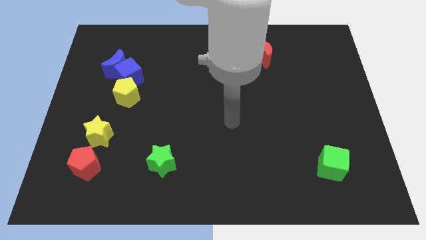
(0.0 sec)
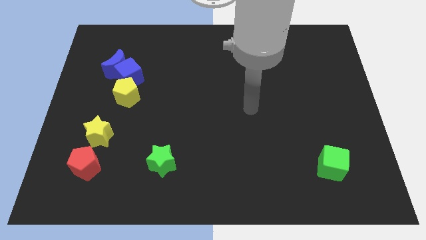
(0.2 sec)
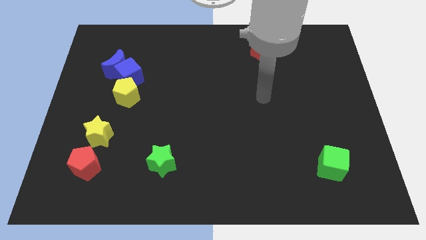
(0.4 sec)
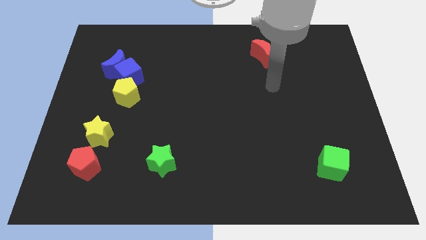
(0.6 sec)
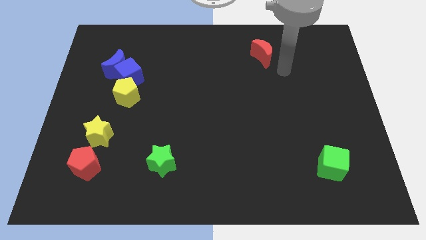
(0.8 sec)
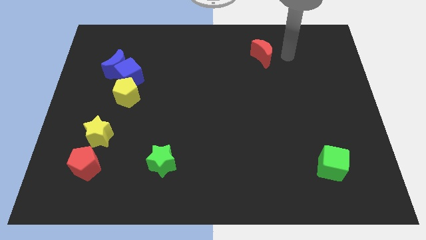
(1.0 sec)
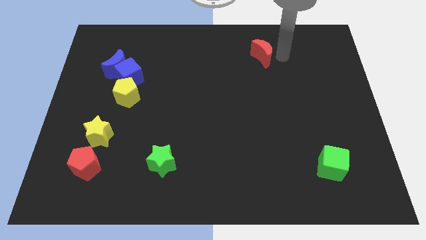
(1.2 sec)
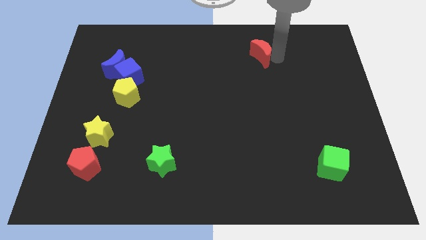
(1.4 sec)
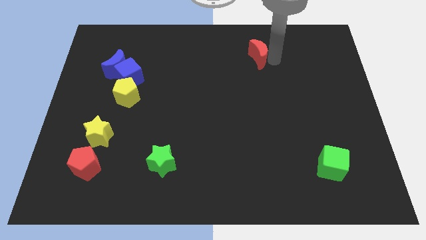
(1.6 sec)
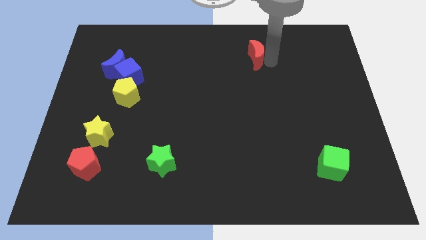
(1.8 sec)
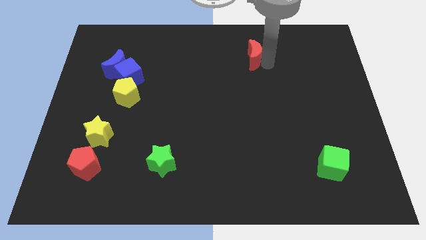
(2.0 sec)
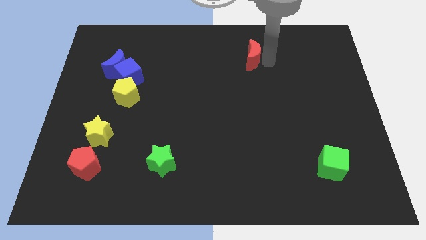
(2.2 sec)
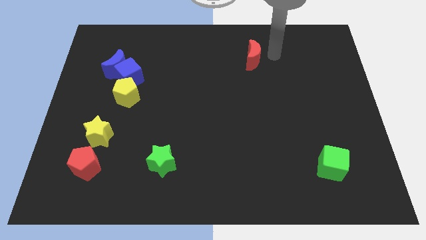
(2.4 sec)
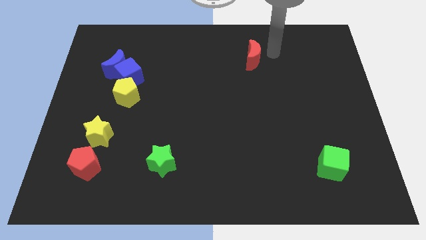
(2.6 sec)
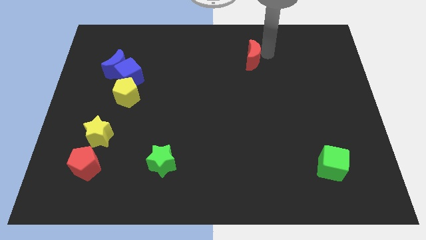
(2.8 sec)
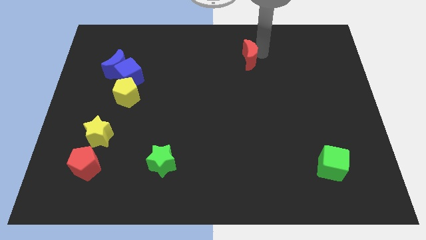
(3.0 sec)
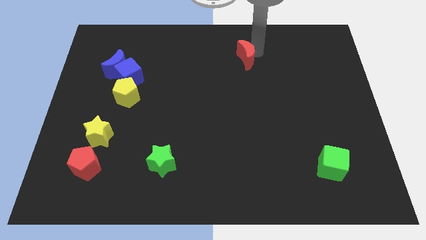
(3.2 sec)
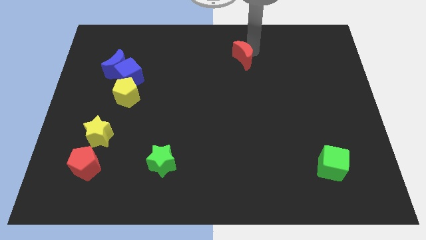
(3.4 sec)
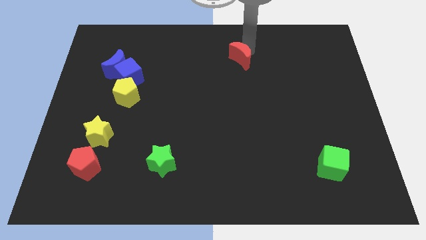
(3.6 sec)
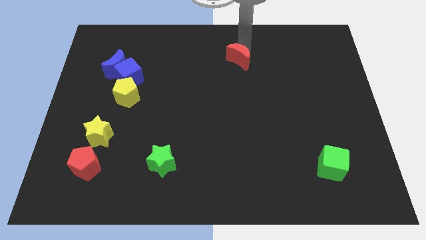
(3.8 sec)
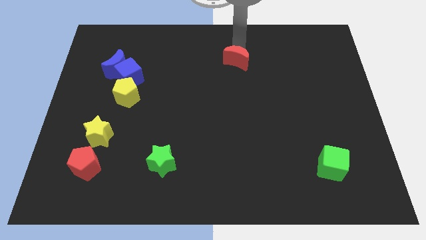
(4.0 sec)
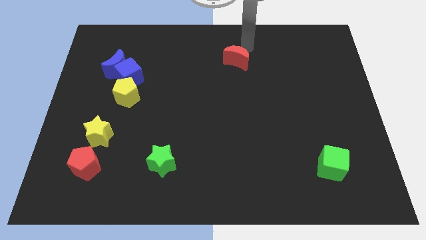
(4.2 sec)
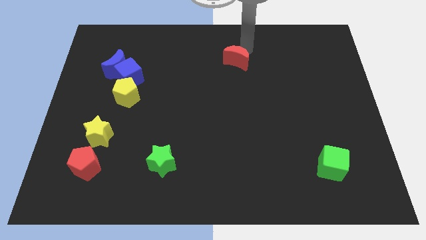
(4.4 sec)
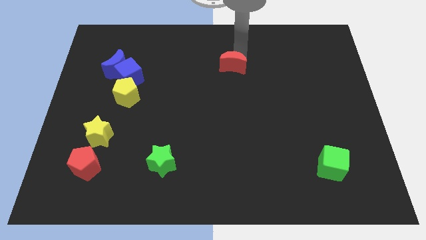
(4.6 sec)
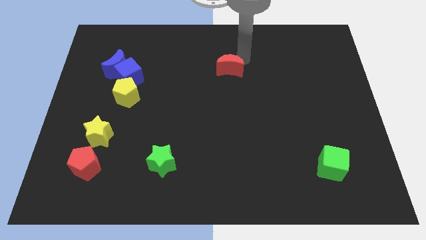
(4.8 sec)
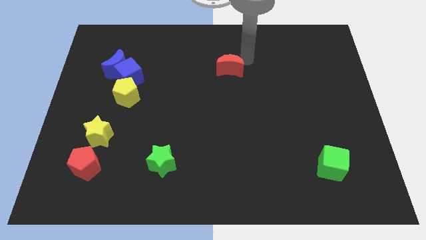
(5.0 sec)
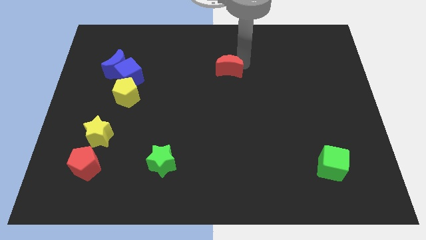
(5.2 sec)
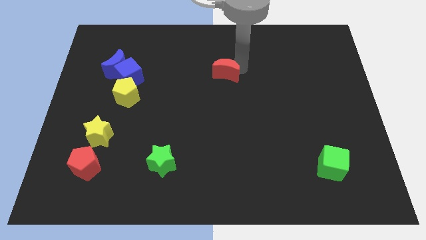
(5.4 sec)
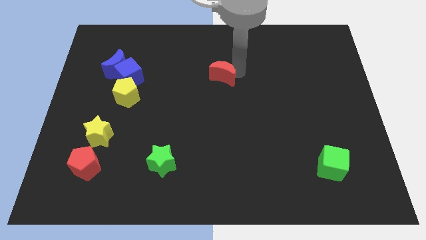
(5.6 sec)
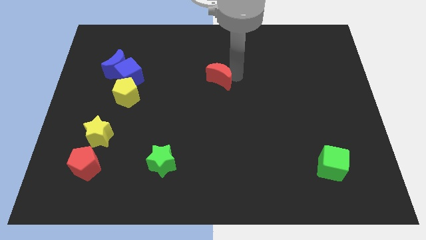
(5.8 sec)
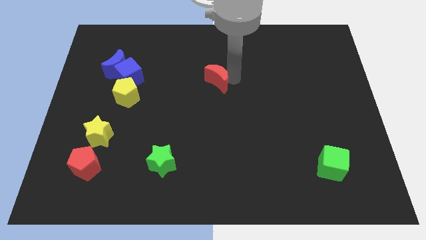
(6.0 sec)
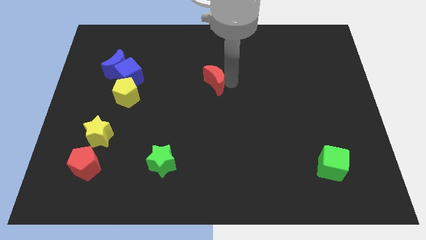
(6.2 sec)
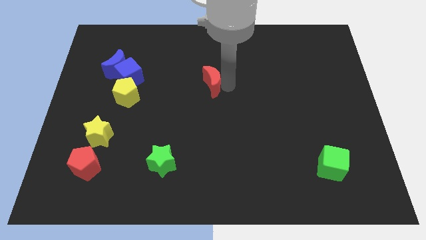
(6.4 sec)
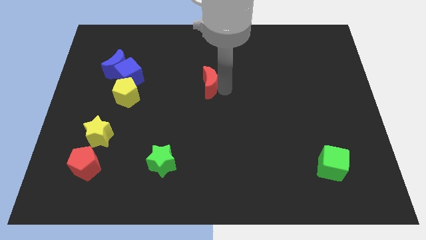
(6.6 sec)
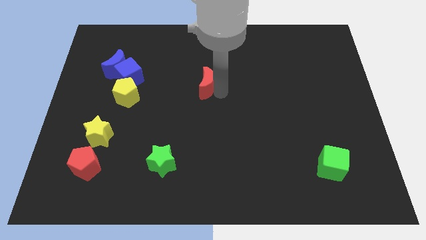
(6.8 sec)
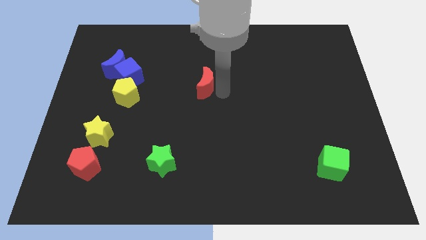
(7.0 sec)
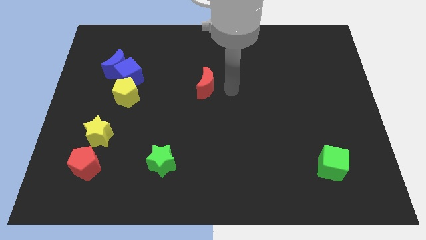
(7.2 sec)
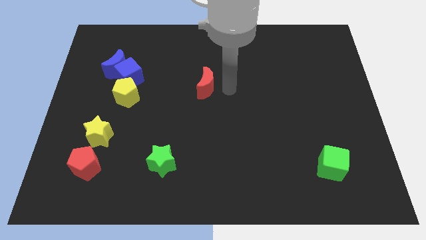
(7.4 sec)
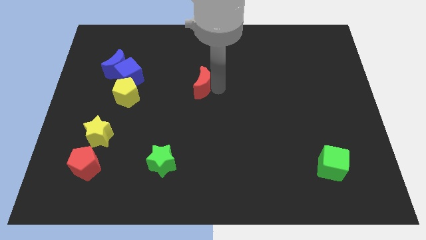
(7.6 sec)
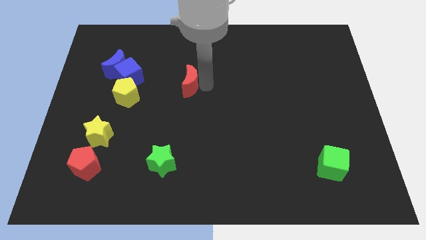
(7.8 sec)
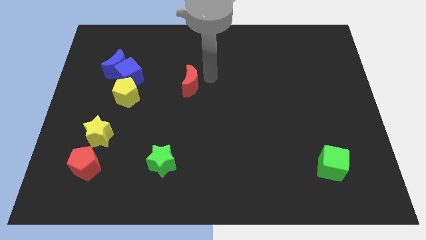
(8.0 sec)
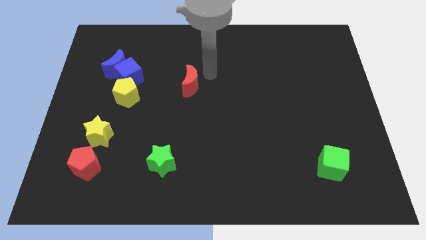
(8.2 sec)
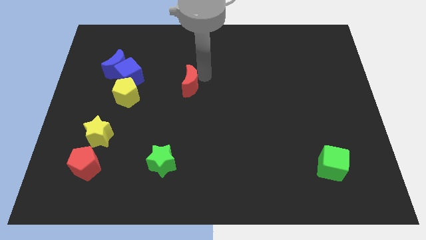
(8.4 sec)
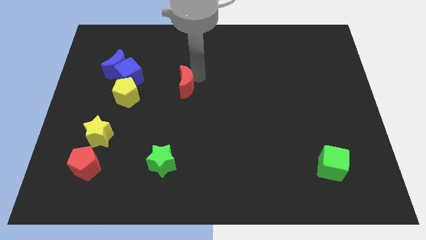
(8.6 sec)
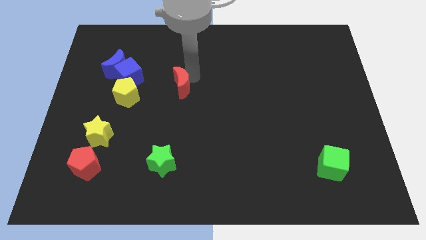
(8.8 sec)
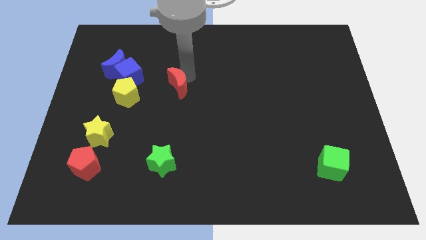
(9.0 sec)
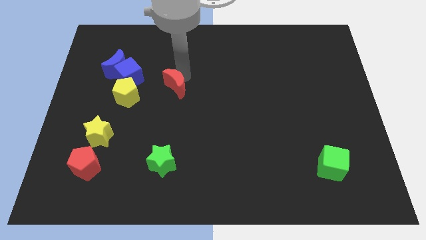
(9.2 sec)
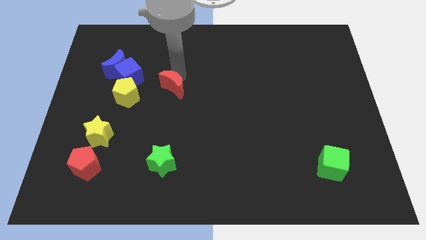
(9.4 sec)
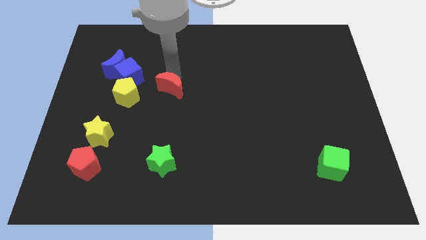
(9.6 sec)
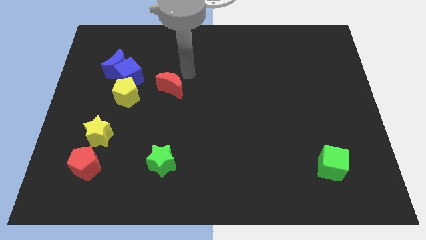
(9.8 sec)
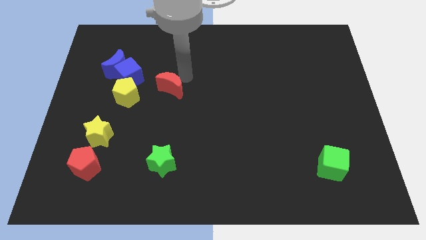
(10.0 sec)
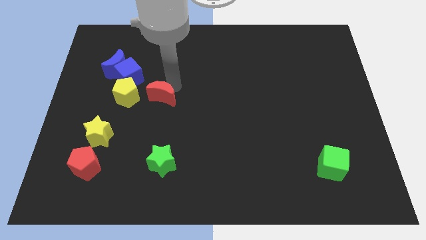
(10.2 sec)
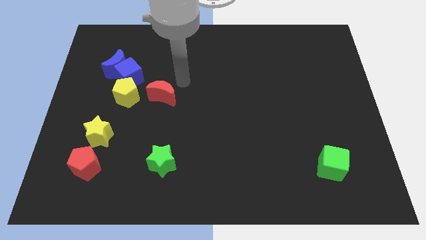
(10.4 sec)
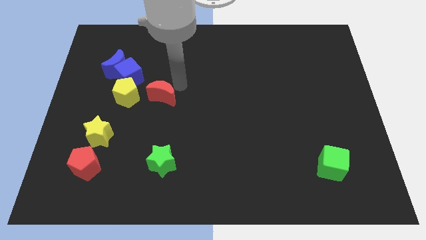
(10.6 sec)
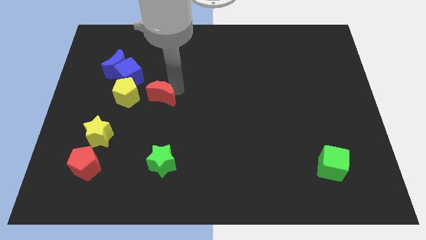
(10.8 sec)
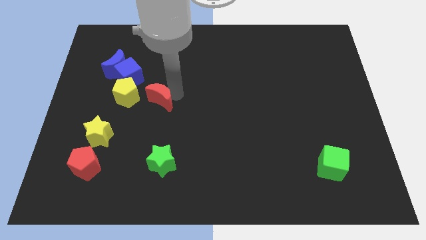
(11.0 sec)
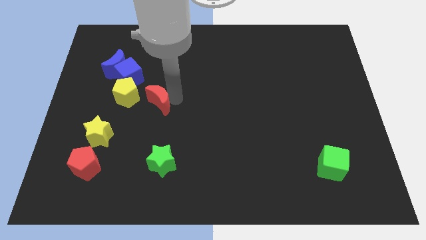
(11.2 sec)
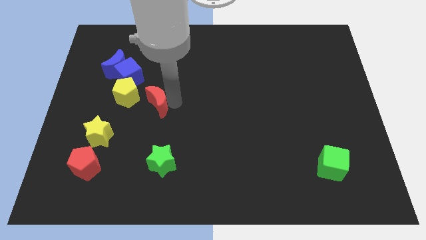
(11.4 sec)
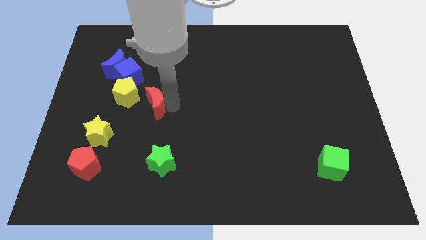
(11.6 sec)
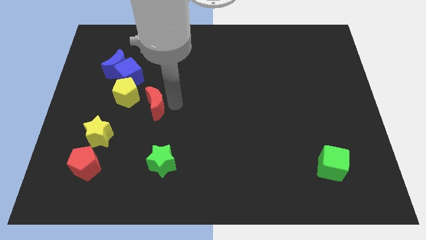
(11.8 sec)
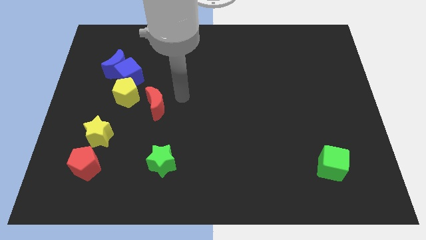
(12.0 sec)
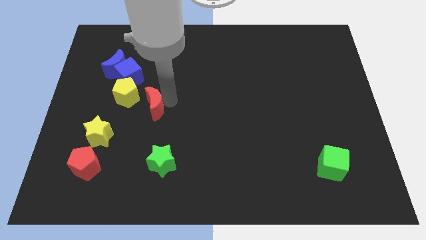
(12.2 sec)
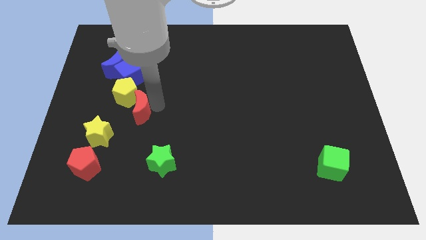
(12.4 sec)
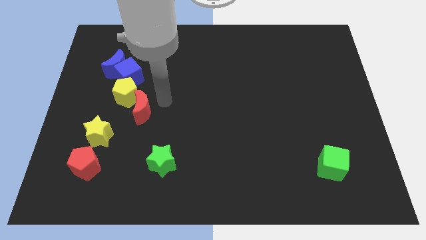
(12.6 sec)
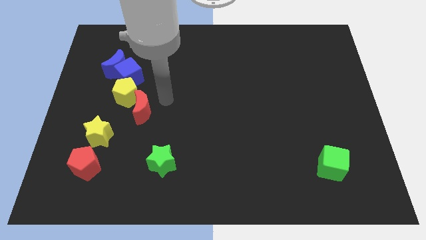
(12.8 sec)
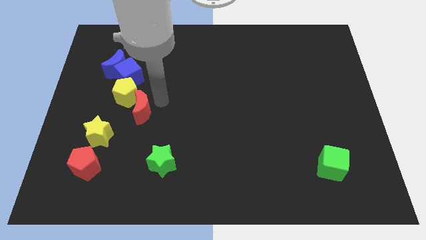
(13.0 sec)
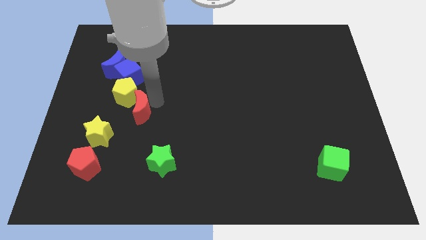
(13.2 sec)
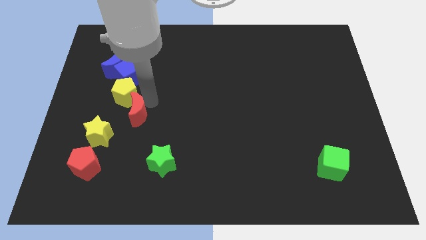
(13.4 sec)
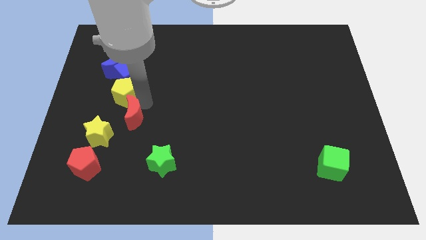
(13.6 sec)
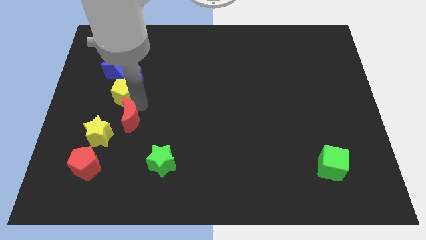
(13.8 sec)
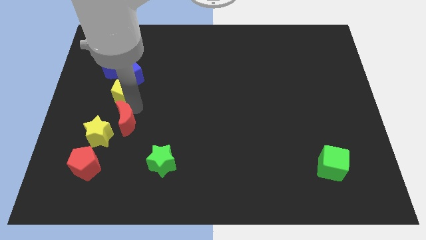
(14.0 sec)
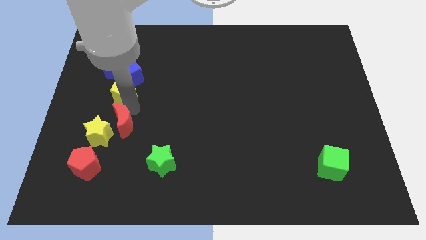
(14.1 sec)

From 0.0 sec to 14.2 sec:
put the red moon to the yellow star

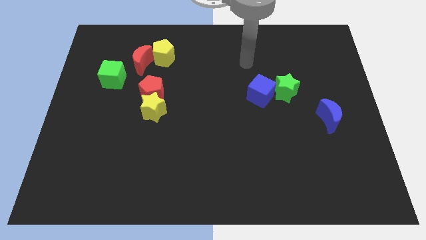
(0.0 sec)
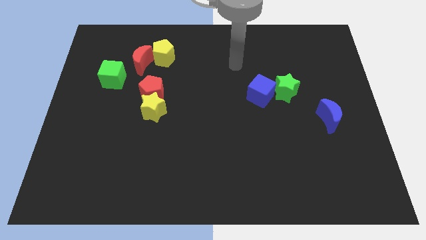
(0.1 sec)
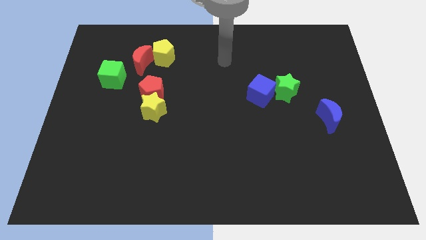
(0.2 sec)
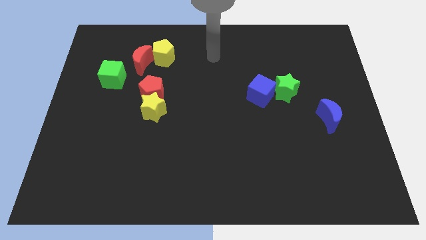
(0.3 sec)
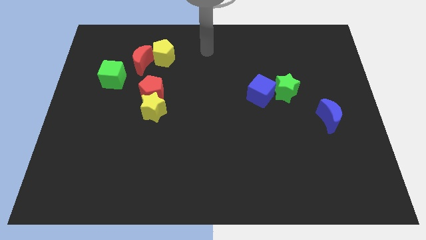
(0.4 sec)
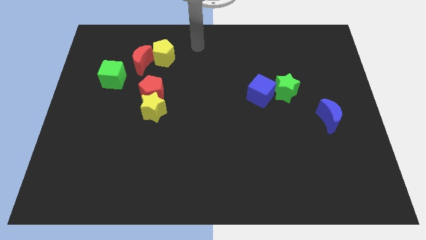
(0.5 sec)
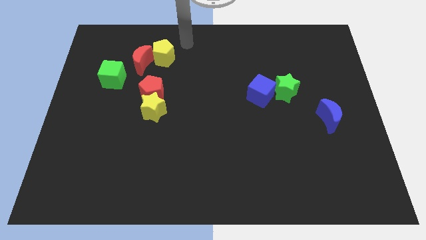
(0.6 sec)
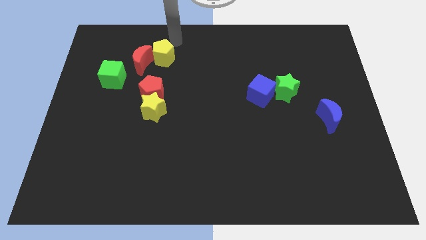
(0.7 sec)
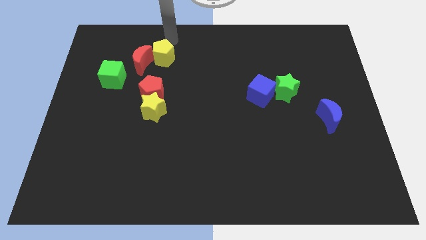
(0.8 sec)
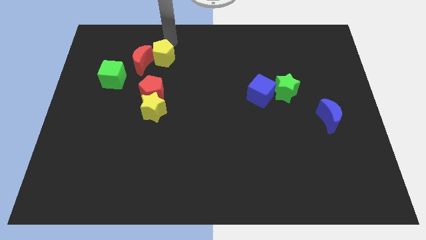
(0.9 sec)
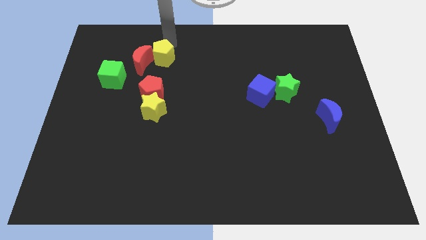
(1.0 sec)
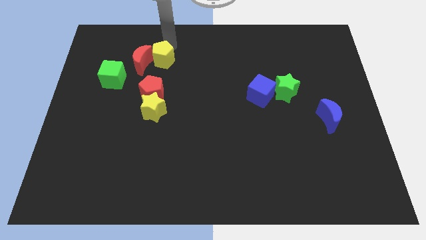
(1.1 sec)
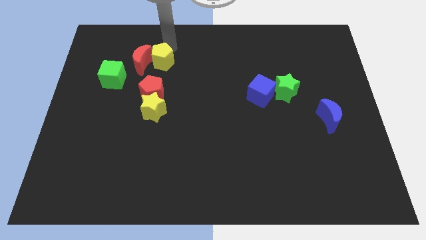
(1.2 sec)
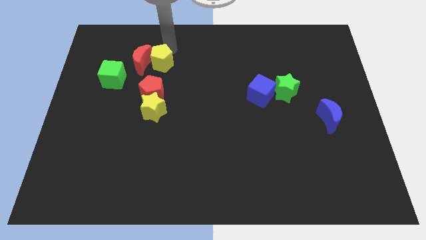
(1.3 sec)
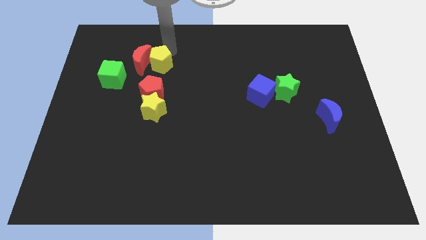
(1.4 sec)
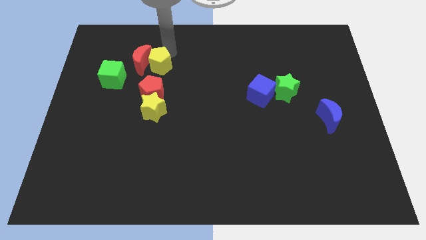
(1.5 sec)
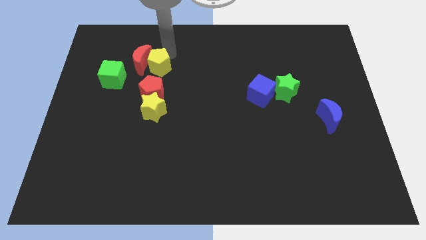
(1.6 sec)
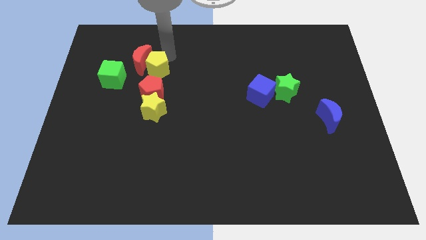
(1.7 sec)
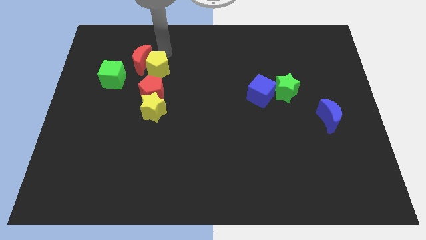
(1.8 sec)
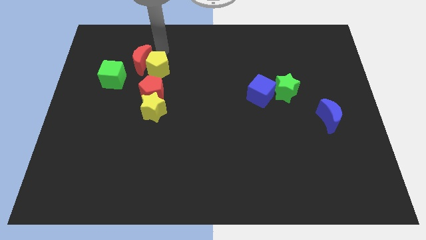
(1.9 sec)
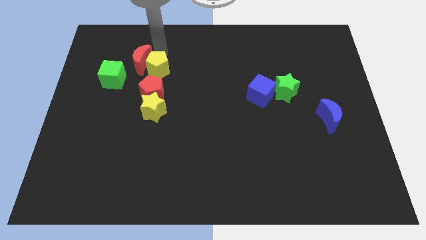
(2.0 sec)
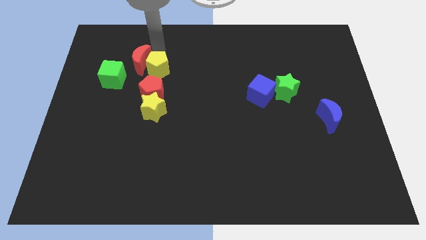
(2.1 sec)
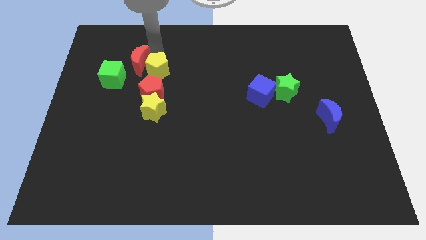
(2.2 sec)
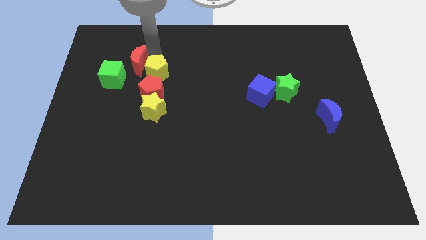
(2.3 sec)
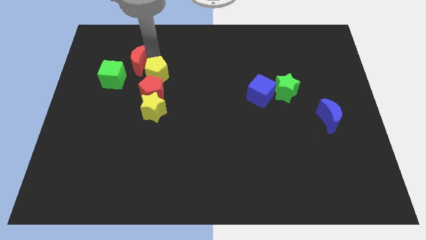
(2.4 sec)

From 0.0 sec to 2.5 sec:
put the yellow pentagon to the red pentagon
